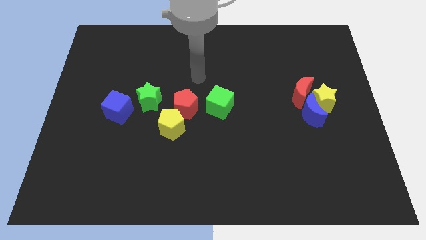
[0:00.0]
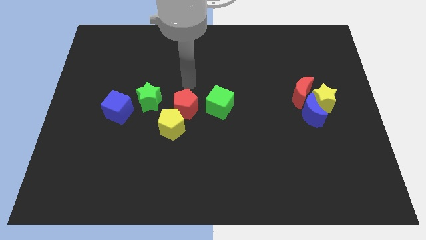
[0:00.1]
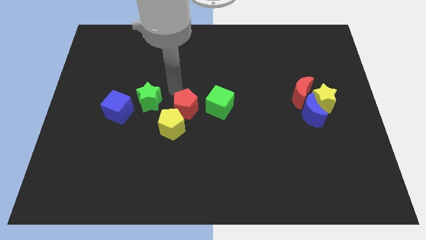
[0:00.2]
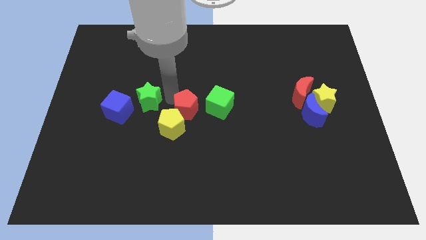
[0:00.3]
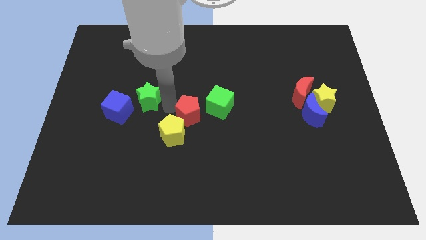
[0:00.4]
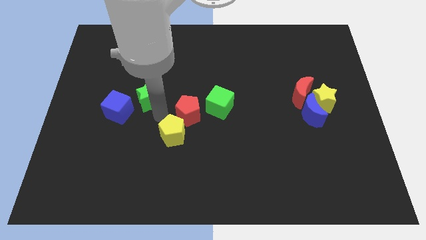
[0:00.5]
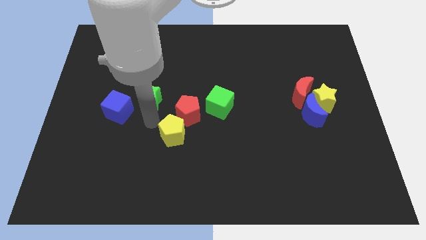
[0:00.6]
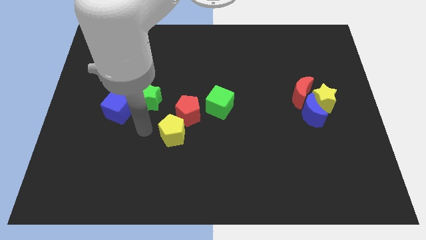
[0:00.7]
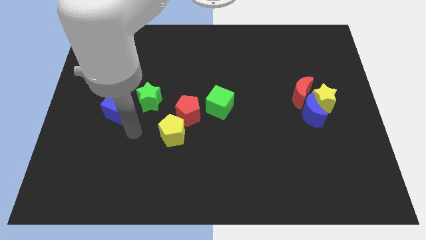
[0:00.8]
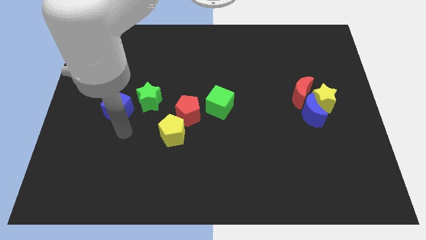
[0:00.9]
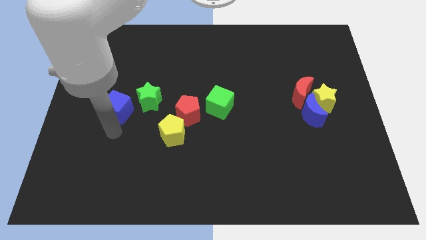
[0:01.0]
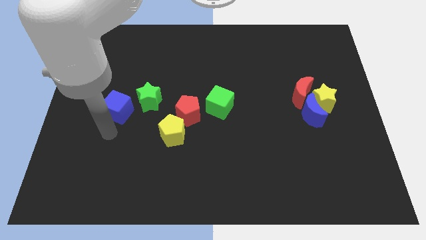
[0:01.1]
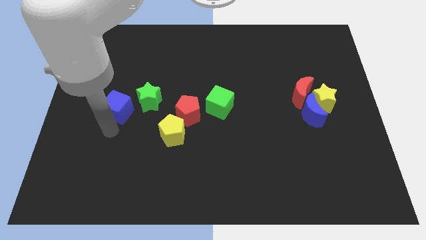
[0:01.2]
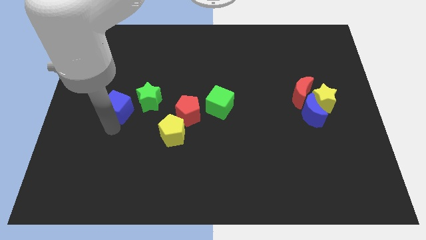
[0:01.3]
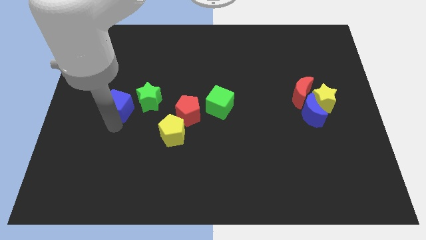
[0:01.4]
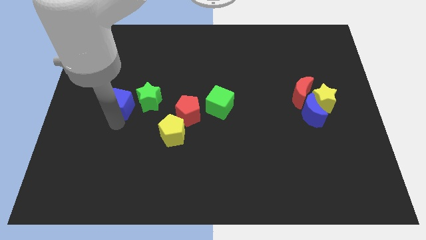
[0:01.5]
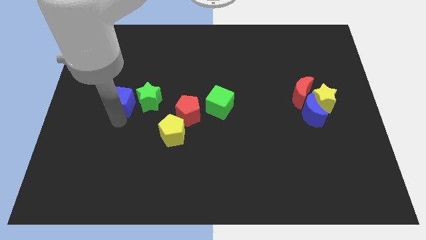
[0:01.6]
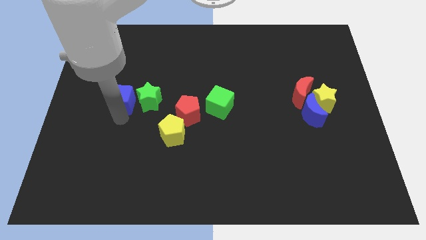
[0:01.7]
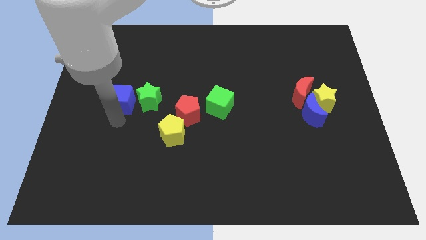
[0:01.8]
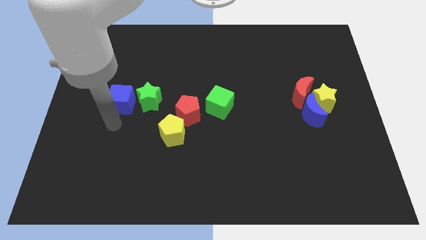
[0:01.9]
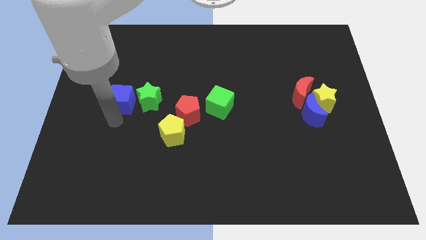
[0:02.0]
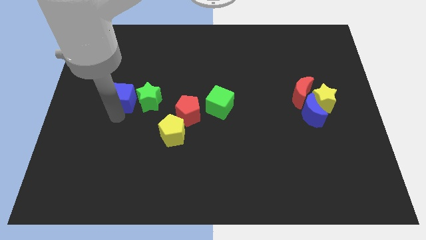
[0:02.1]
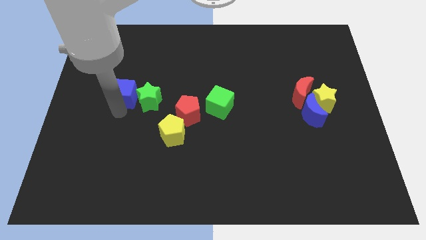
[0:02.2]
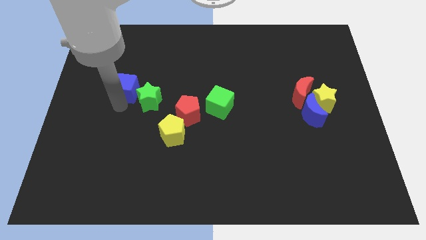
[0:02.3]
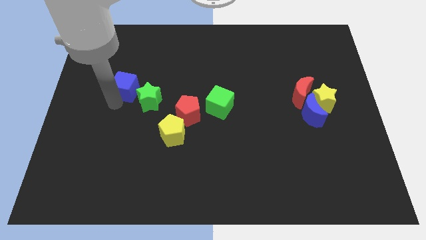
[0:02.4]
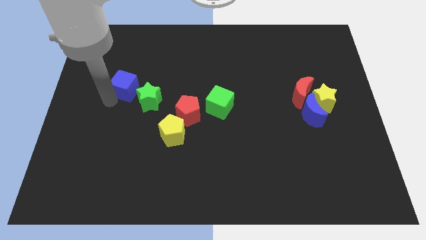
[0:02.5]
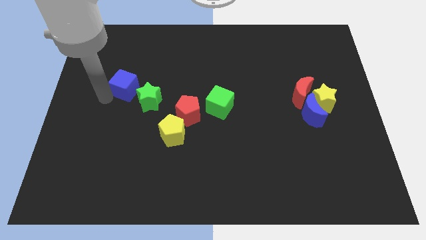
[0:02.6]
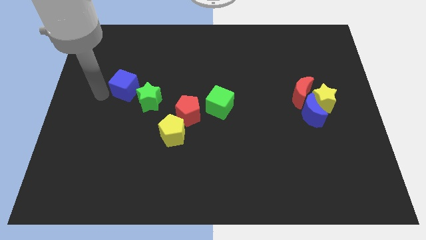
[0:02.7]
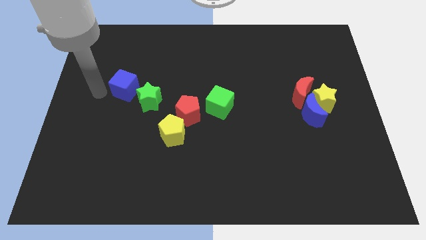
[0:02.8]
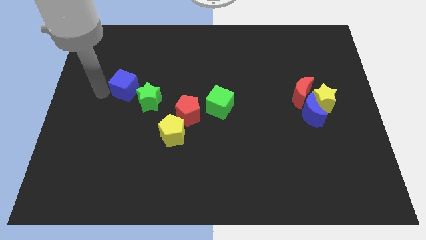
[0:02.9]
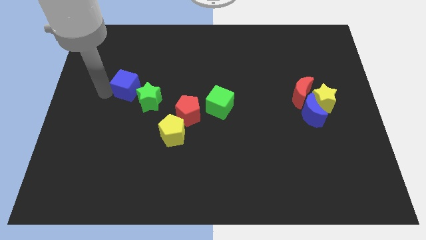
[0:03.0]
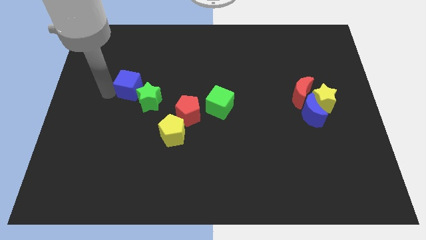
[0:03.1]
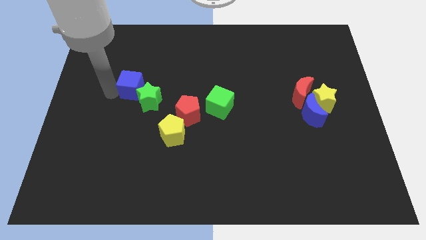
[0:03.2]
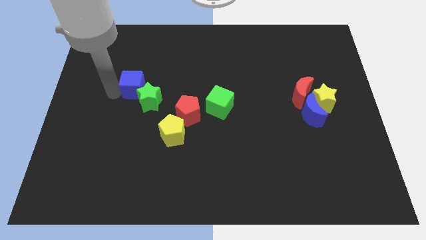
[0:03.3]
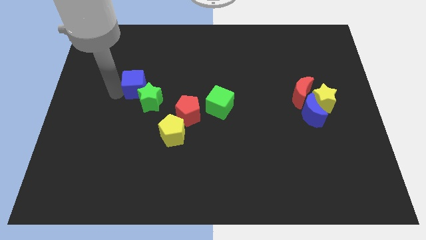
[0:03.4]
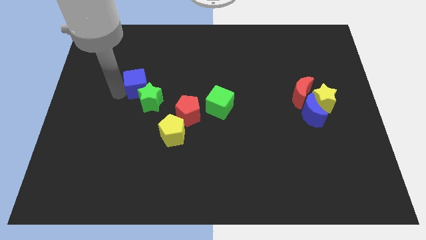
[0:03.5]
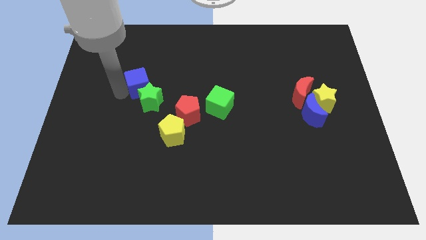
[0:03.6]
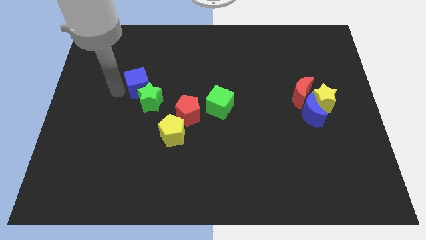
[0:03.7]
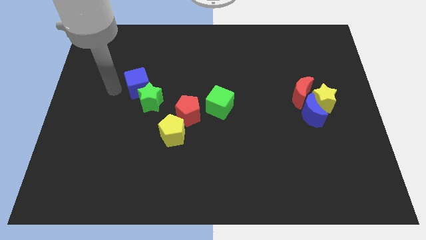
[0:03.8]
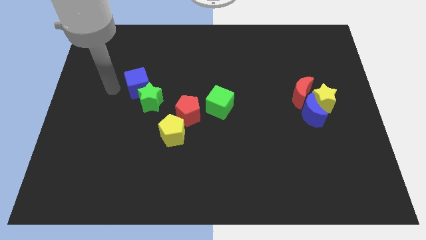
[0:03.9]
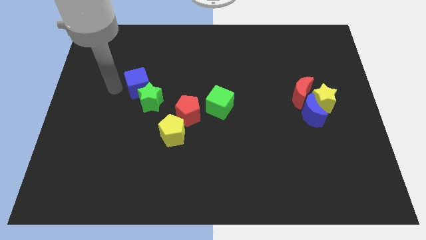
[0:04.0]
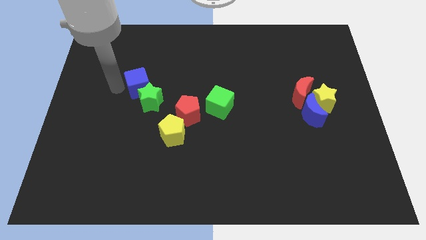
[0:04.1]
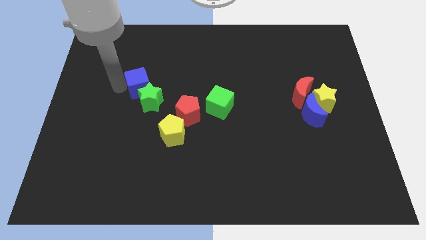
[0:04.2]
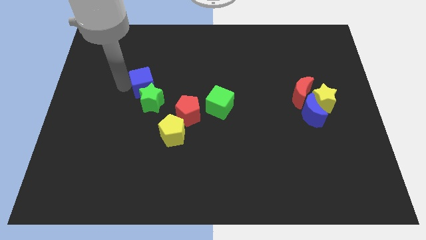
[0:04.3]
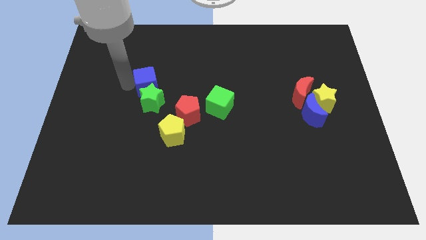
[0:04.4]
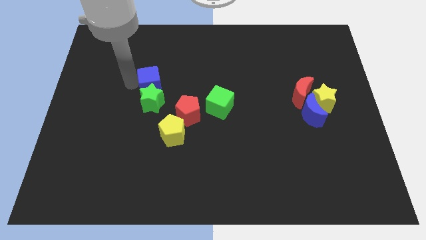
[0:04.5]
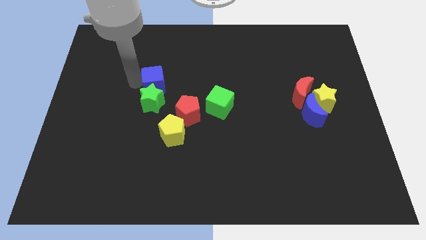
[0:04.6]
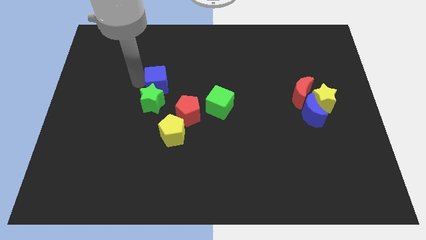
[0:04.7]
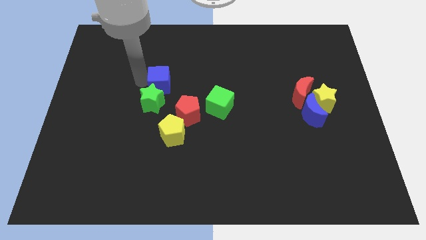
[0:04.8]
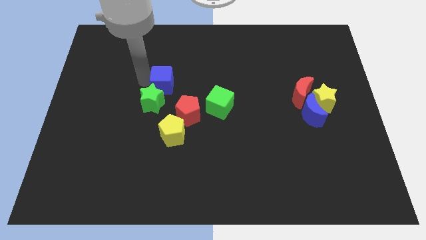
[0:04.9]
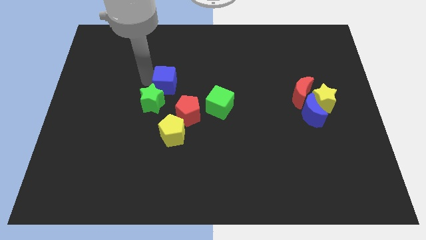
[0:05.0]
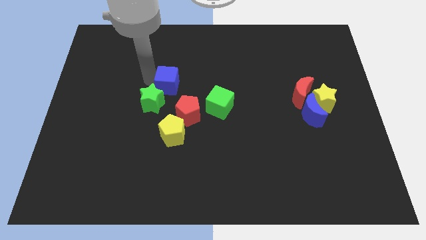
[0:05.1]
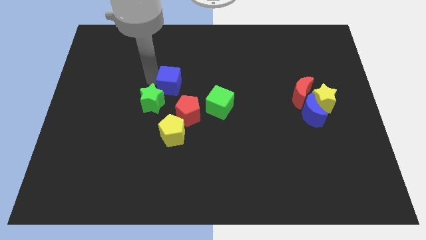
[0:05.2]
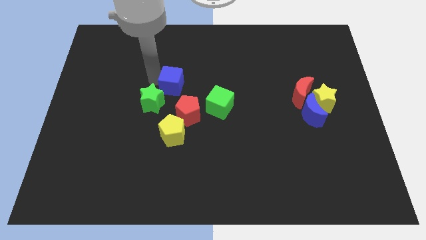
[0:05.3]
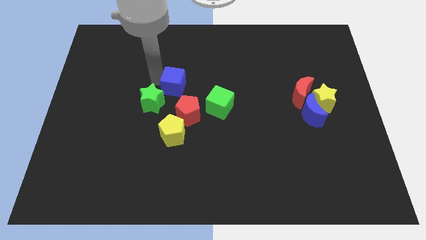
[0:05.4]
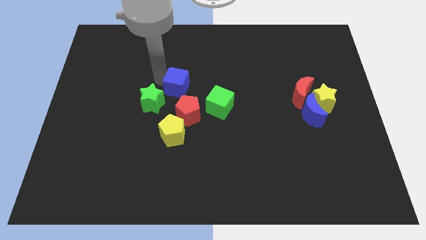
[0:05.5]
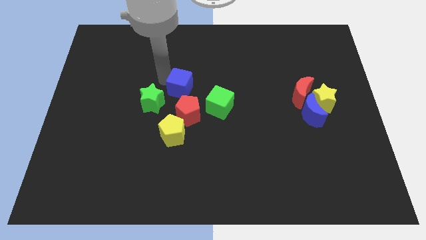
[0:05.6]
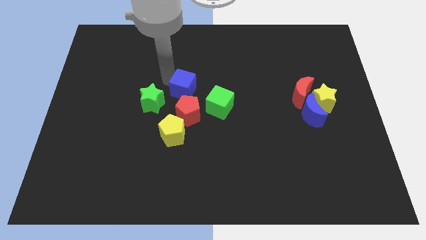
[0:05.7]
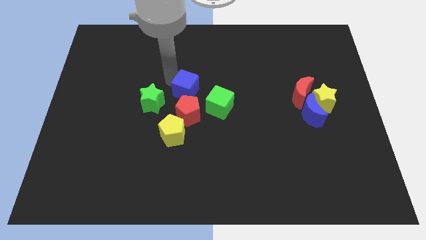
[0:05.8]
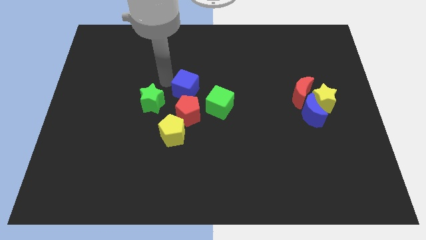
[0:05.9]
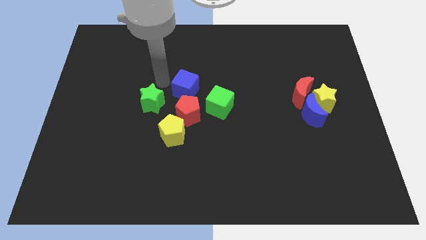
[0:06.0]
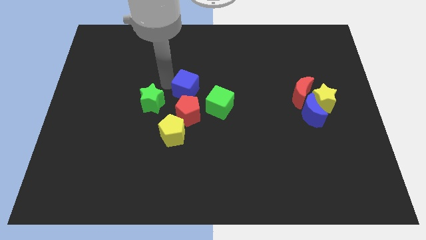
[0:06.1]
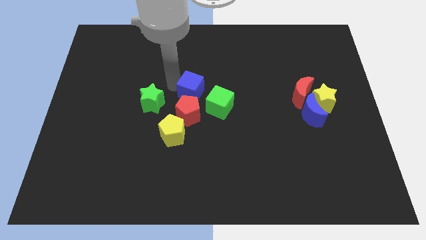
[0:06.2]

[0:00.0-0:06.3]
move the blue cube to the top right of the red pentagon

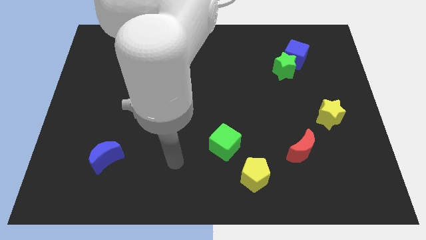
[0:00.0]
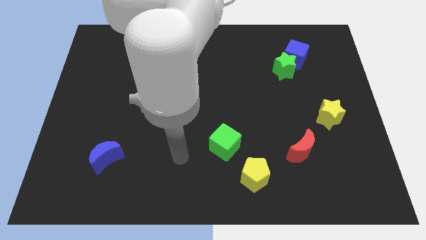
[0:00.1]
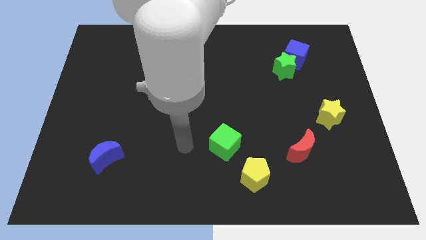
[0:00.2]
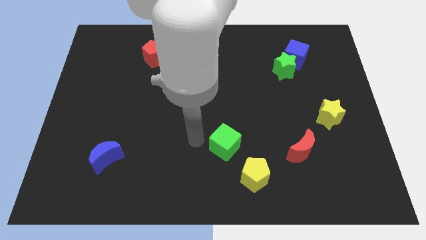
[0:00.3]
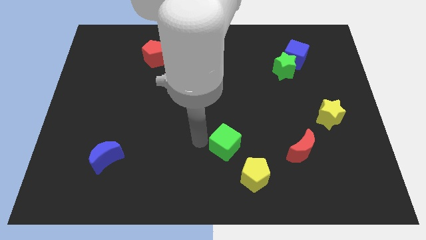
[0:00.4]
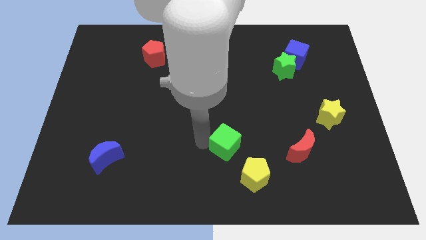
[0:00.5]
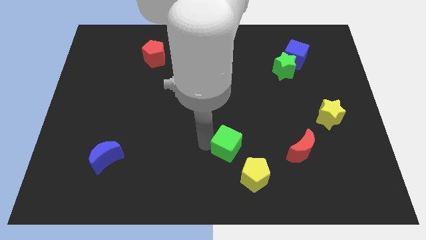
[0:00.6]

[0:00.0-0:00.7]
slide the green cube to the left side of the red moon
